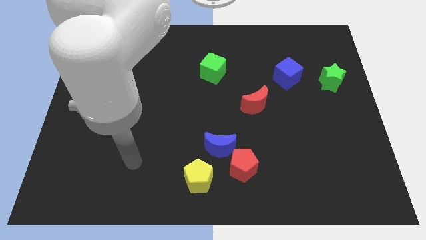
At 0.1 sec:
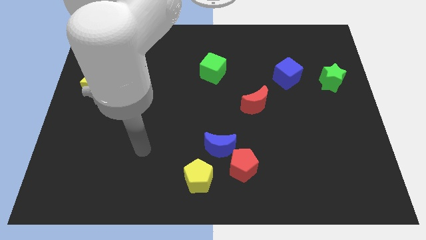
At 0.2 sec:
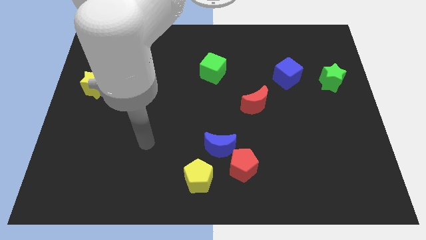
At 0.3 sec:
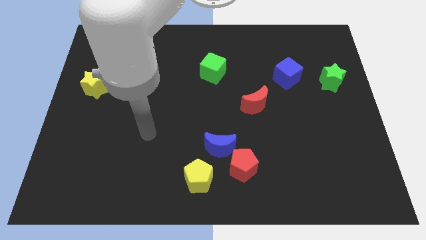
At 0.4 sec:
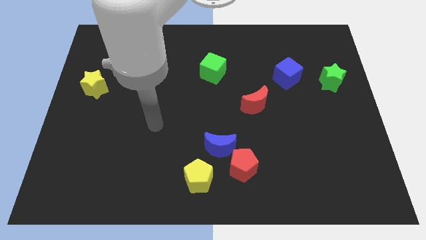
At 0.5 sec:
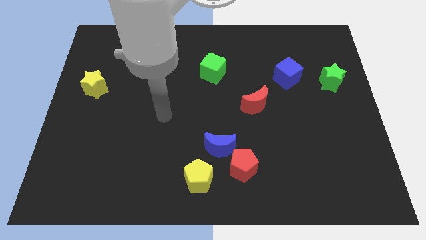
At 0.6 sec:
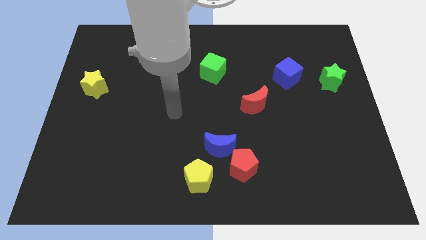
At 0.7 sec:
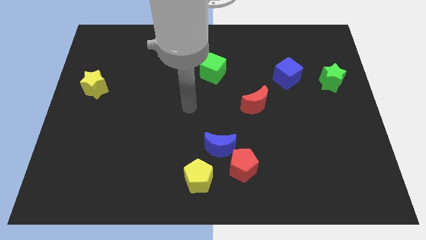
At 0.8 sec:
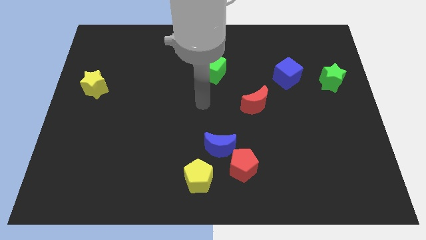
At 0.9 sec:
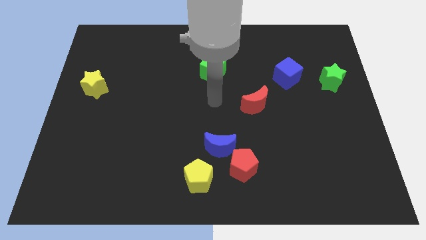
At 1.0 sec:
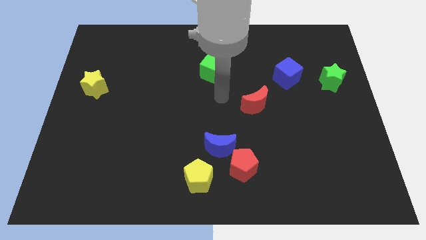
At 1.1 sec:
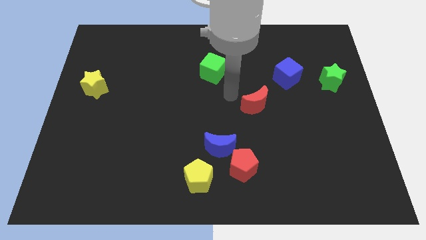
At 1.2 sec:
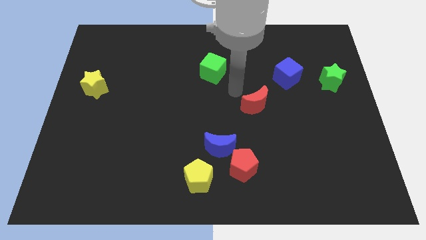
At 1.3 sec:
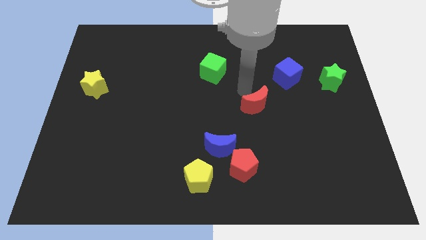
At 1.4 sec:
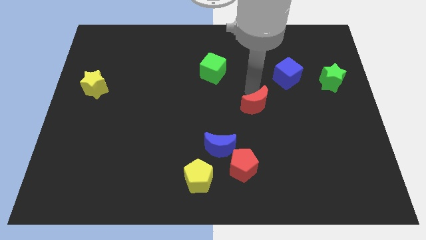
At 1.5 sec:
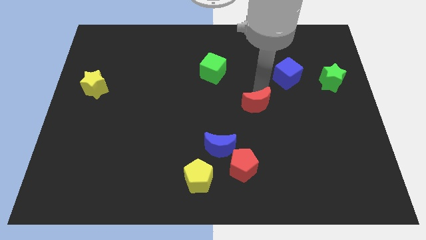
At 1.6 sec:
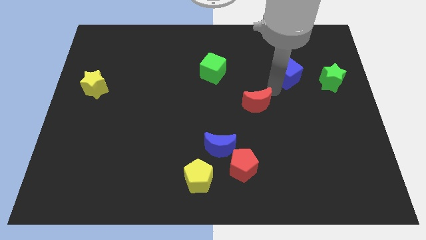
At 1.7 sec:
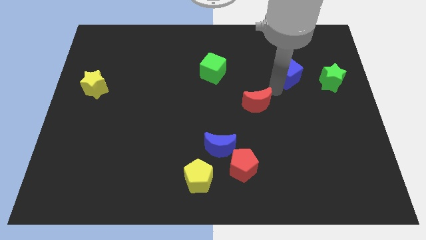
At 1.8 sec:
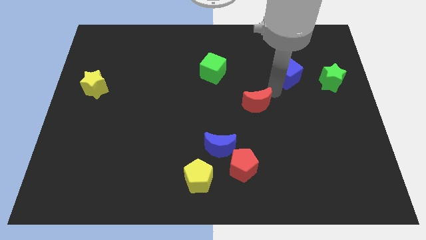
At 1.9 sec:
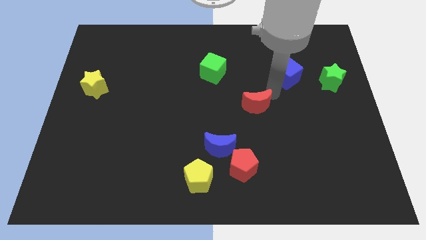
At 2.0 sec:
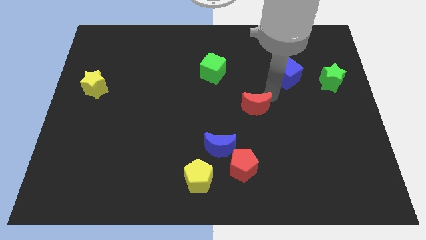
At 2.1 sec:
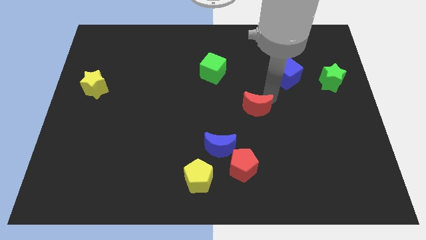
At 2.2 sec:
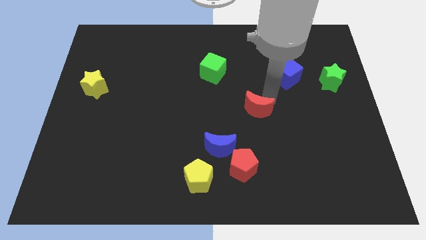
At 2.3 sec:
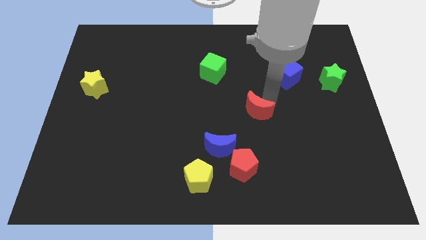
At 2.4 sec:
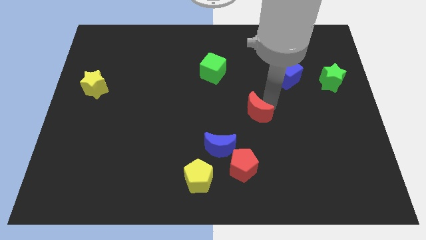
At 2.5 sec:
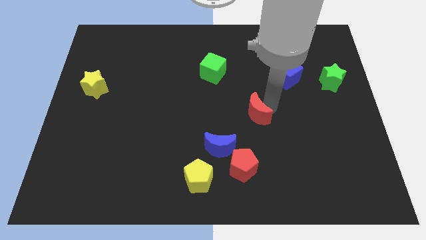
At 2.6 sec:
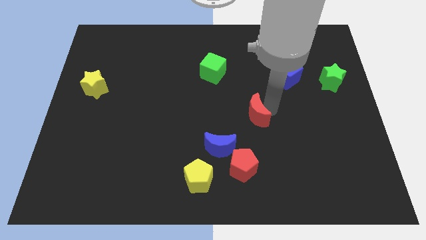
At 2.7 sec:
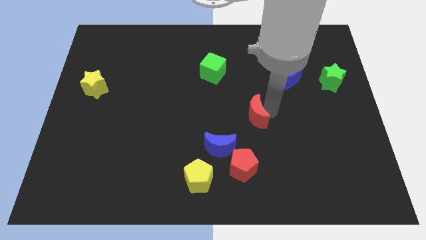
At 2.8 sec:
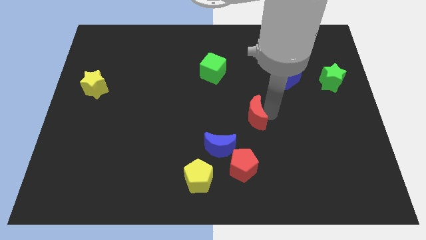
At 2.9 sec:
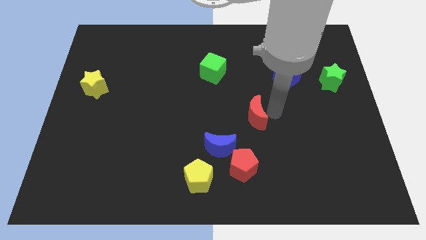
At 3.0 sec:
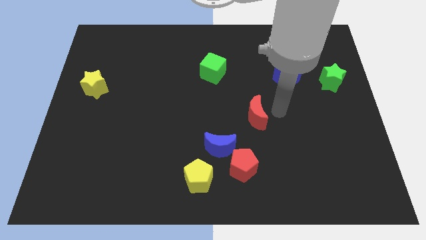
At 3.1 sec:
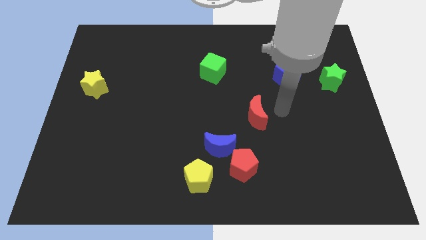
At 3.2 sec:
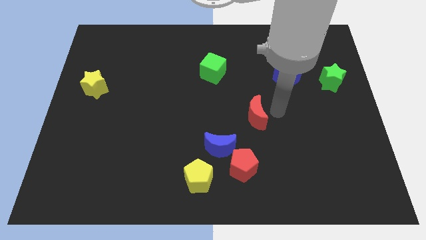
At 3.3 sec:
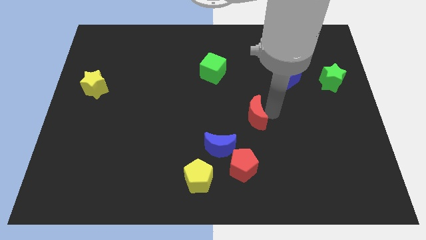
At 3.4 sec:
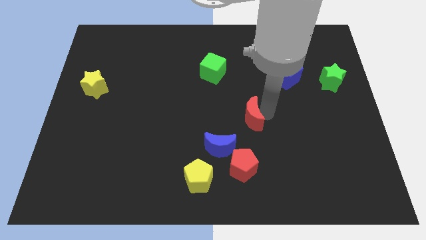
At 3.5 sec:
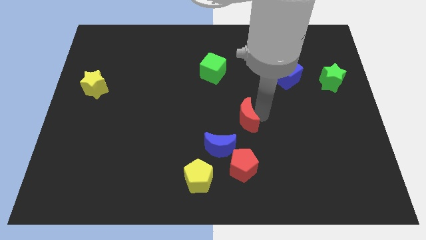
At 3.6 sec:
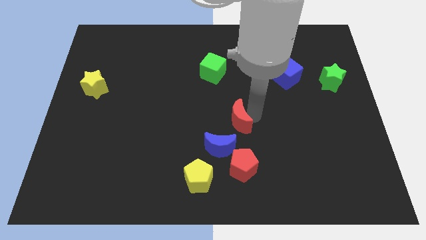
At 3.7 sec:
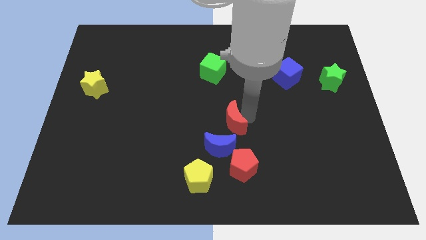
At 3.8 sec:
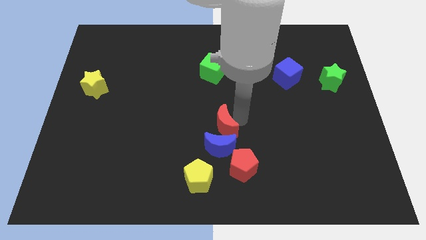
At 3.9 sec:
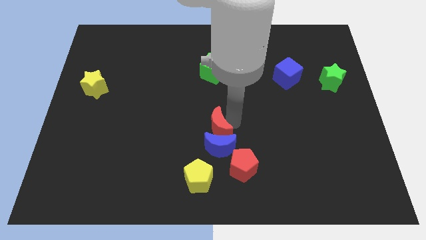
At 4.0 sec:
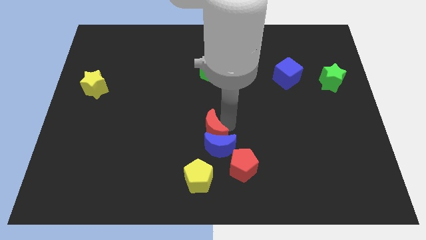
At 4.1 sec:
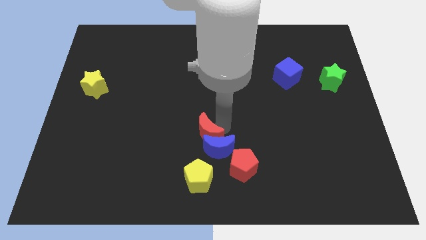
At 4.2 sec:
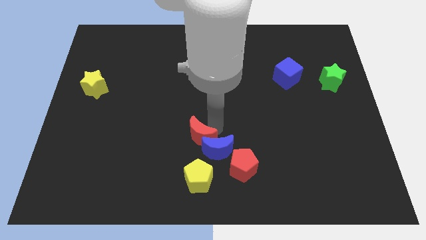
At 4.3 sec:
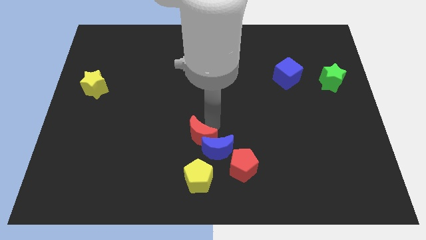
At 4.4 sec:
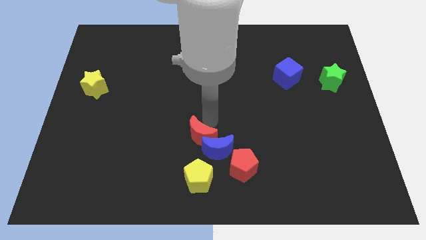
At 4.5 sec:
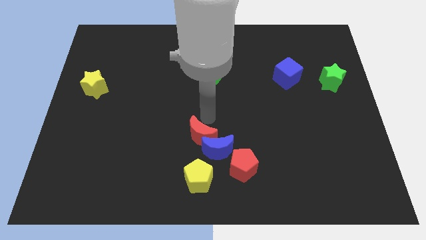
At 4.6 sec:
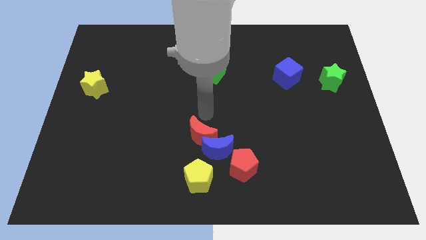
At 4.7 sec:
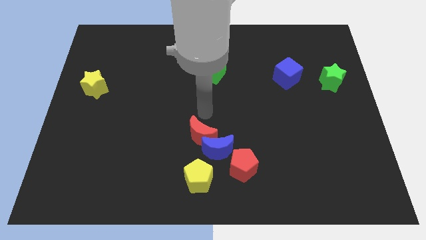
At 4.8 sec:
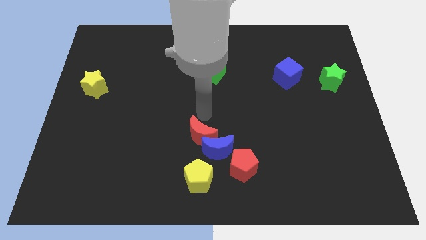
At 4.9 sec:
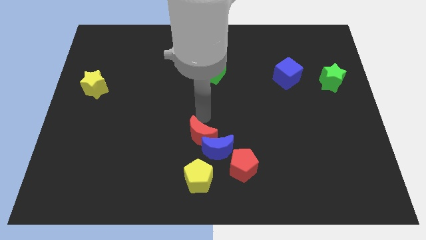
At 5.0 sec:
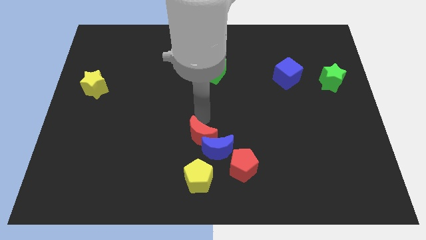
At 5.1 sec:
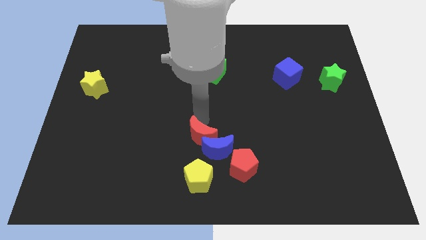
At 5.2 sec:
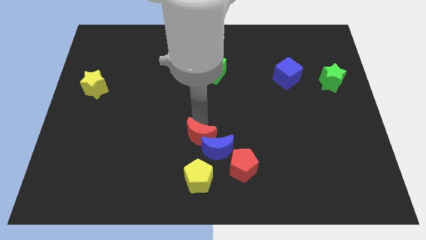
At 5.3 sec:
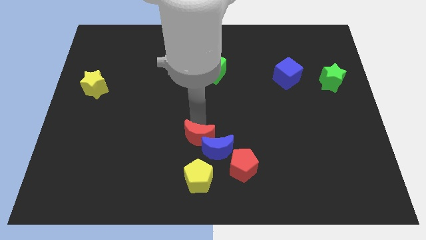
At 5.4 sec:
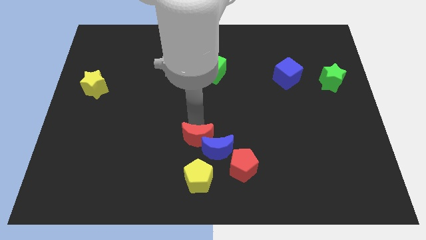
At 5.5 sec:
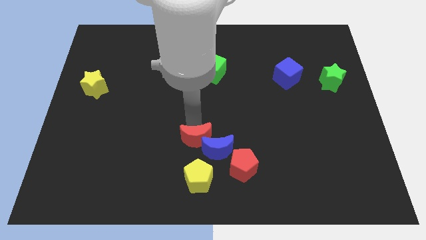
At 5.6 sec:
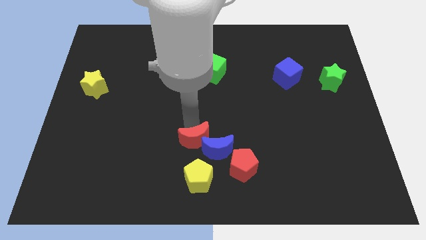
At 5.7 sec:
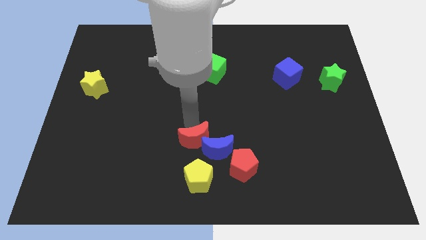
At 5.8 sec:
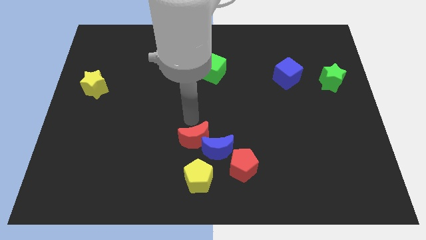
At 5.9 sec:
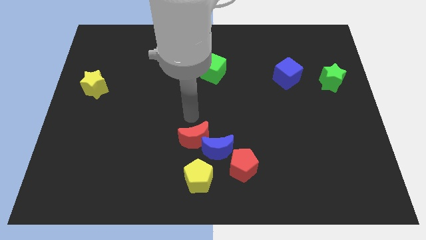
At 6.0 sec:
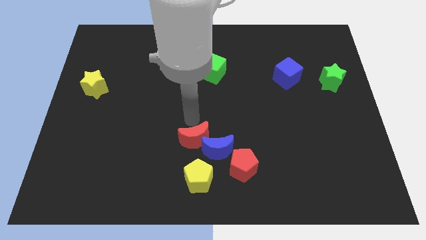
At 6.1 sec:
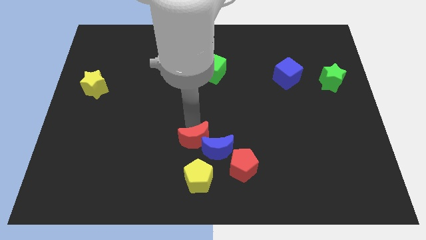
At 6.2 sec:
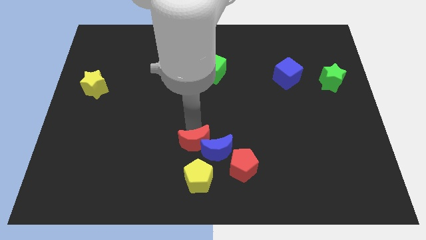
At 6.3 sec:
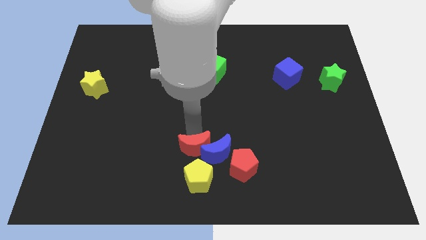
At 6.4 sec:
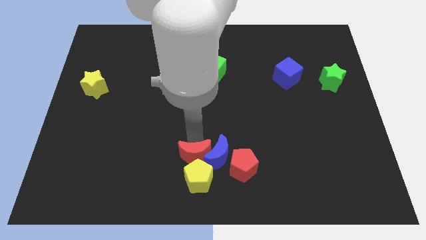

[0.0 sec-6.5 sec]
push the red moon towards the yellow pentagon

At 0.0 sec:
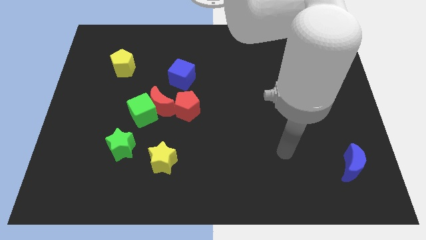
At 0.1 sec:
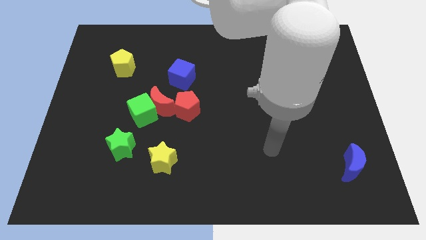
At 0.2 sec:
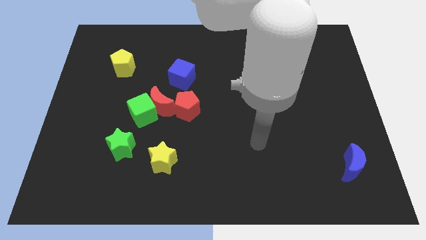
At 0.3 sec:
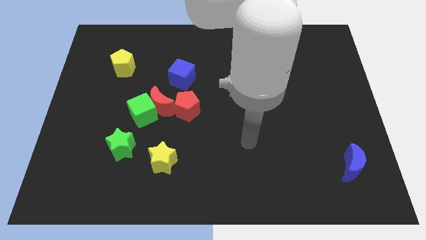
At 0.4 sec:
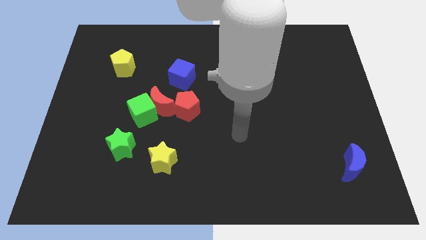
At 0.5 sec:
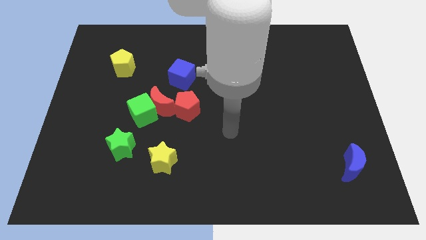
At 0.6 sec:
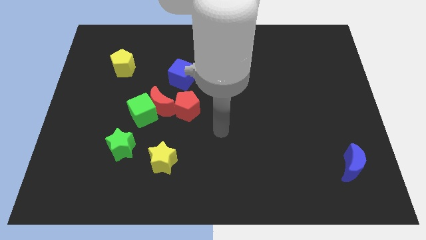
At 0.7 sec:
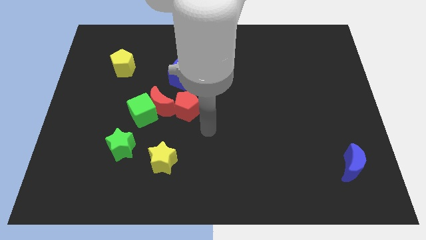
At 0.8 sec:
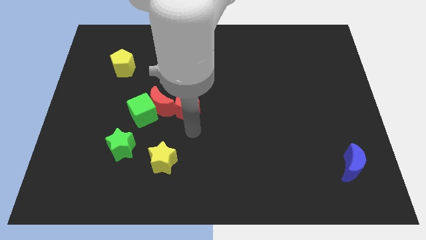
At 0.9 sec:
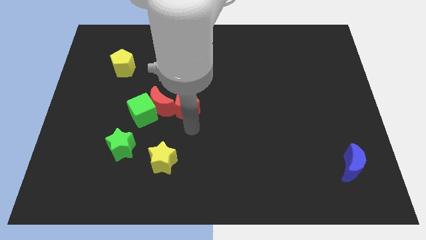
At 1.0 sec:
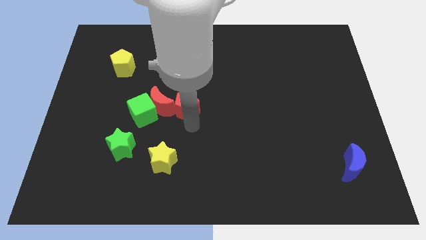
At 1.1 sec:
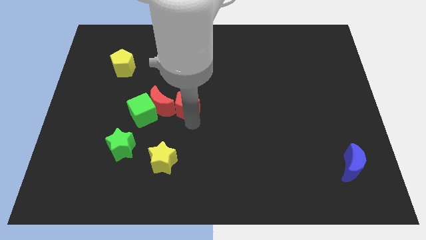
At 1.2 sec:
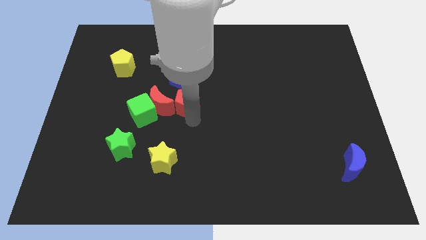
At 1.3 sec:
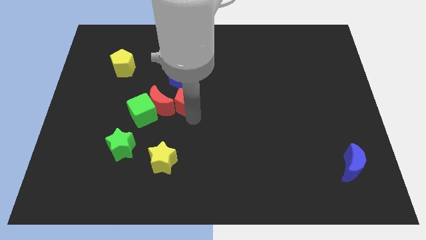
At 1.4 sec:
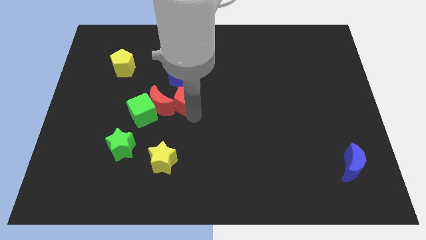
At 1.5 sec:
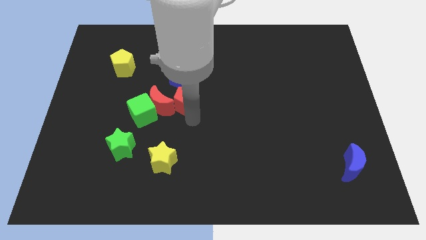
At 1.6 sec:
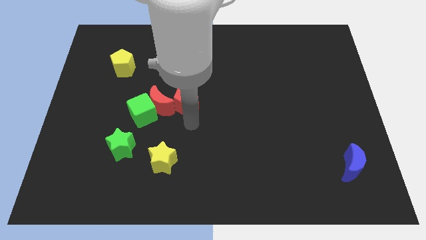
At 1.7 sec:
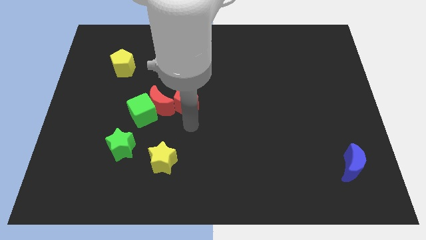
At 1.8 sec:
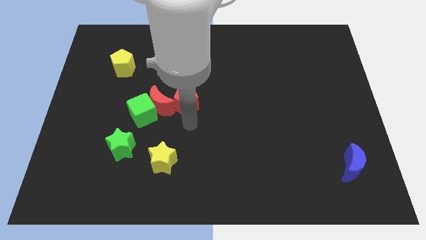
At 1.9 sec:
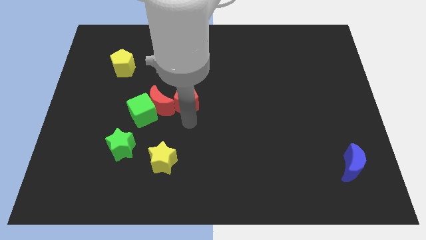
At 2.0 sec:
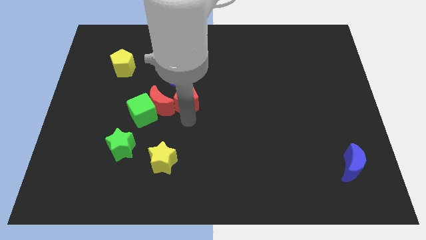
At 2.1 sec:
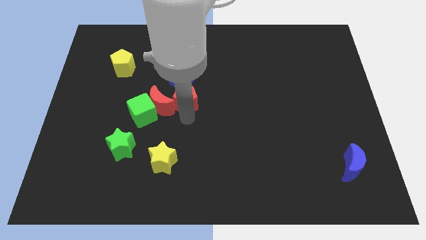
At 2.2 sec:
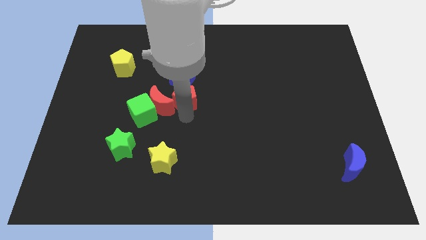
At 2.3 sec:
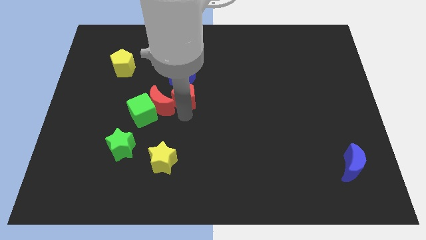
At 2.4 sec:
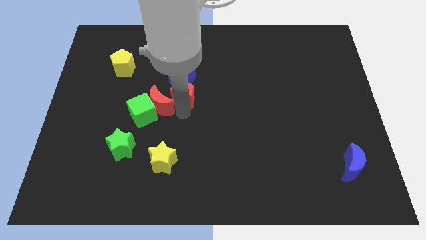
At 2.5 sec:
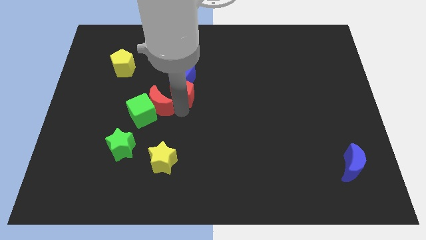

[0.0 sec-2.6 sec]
move the red pentagon to the blue cube
